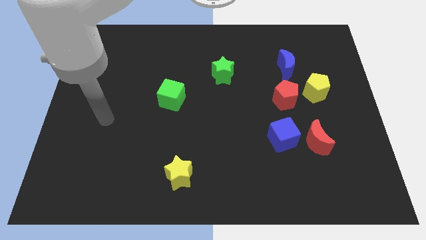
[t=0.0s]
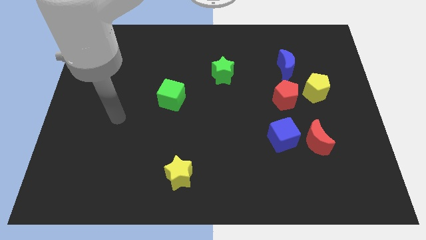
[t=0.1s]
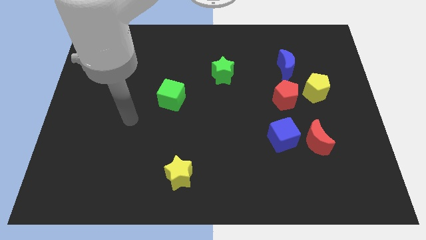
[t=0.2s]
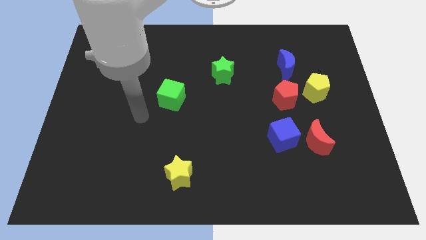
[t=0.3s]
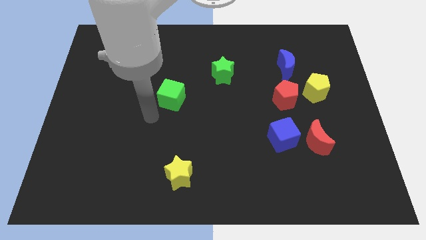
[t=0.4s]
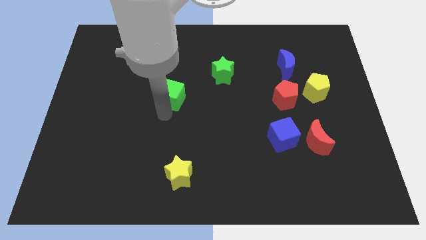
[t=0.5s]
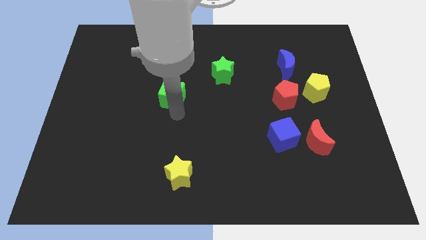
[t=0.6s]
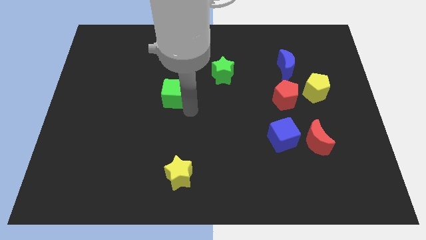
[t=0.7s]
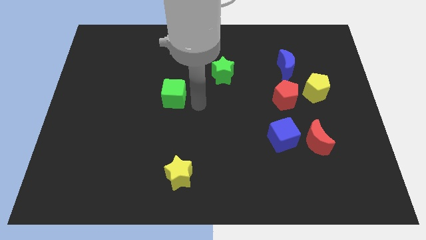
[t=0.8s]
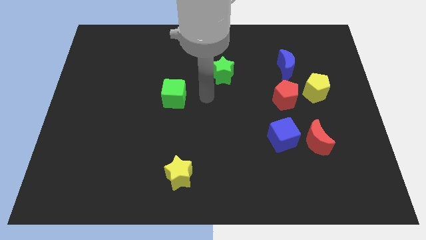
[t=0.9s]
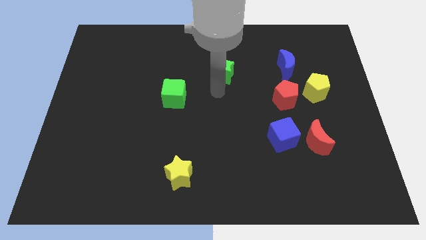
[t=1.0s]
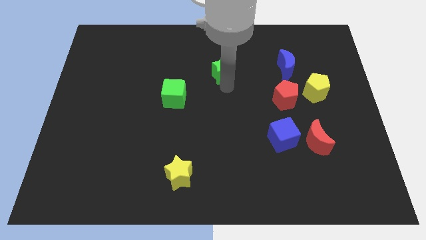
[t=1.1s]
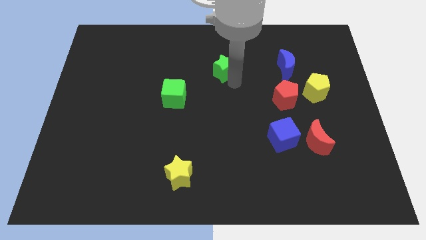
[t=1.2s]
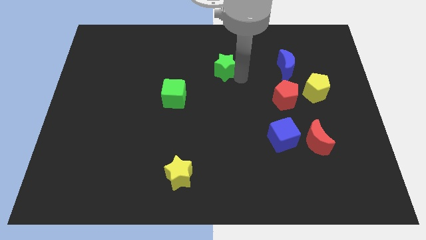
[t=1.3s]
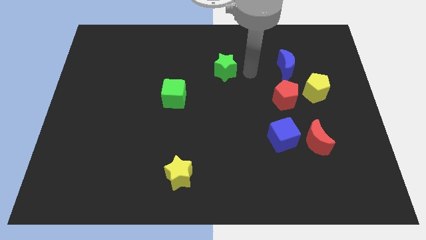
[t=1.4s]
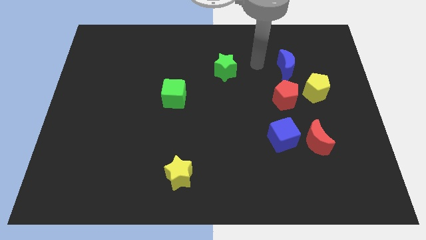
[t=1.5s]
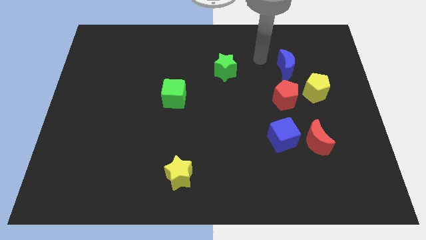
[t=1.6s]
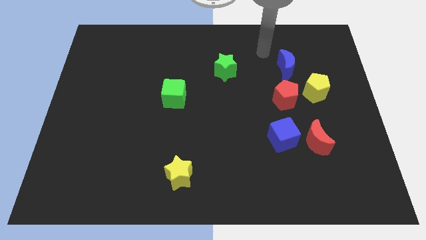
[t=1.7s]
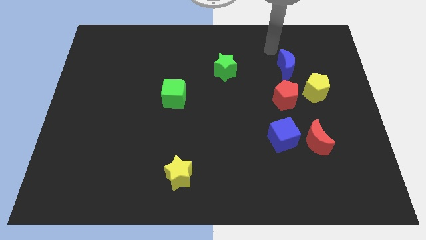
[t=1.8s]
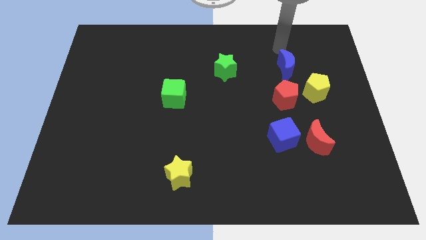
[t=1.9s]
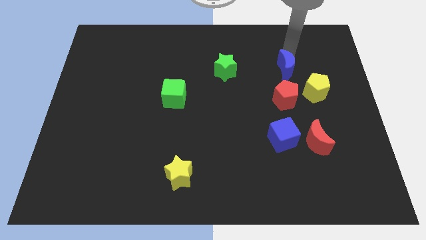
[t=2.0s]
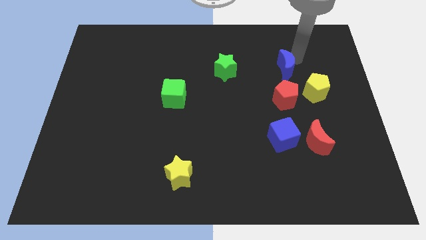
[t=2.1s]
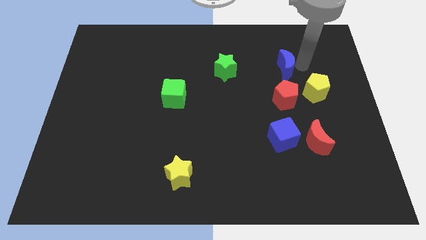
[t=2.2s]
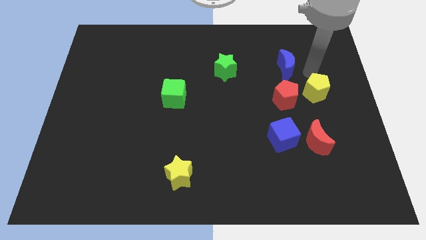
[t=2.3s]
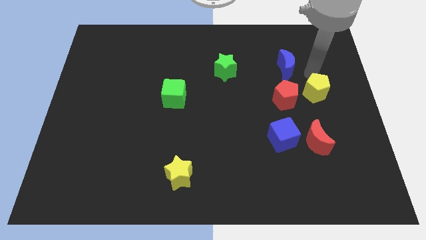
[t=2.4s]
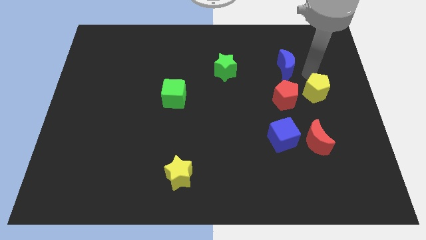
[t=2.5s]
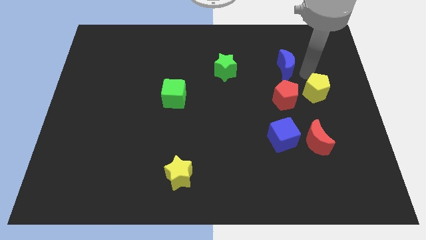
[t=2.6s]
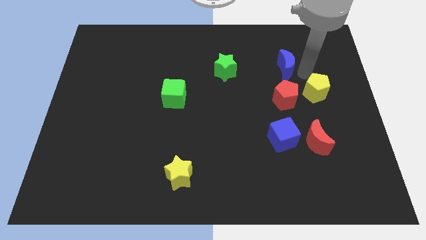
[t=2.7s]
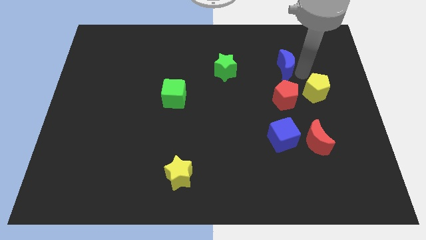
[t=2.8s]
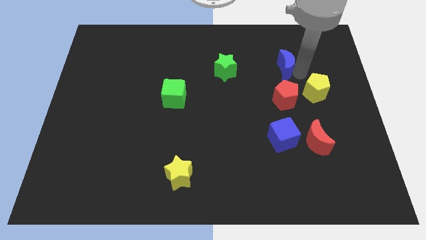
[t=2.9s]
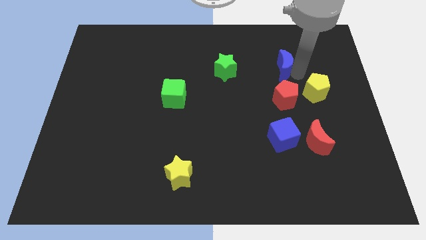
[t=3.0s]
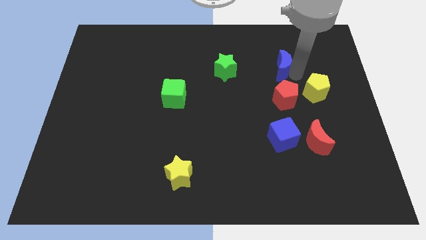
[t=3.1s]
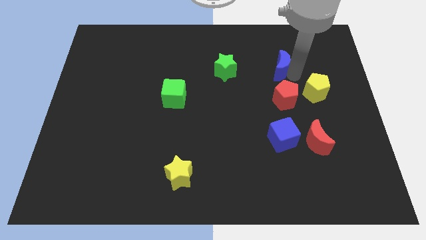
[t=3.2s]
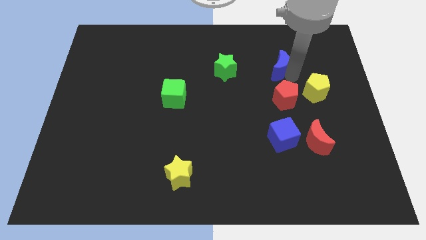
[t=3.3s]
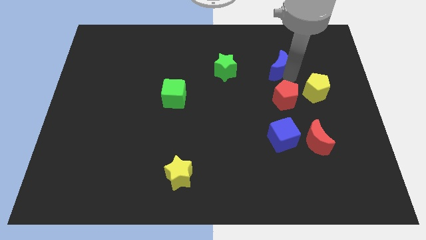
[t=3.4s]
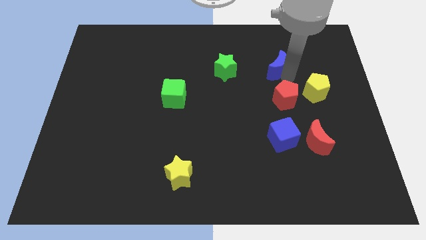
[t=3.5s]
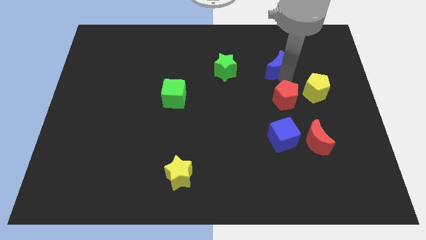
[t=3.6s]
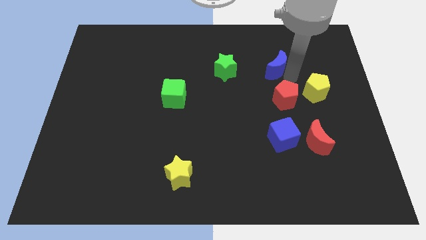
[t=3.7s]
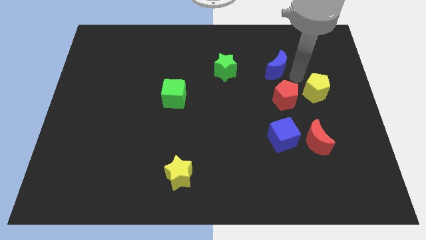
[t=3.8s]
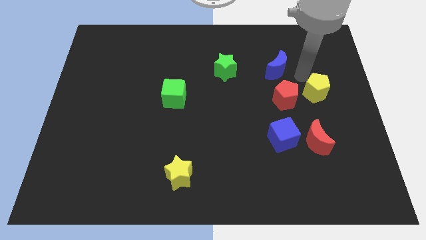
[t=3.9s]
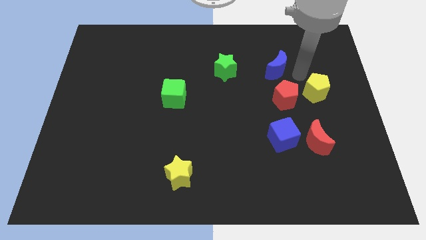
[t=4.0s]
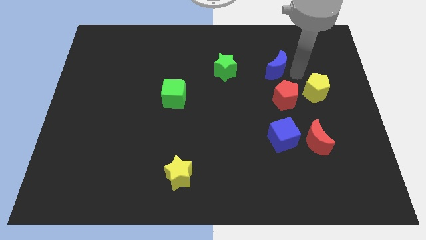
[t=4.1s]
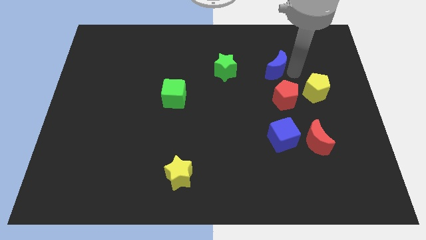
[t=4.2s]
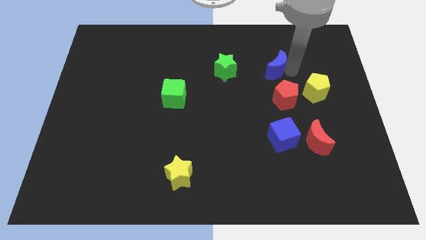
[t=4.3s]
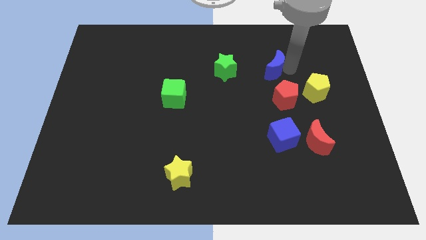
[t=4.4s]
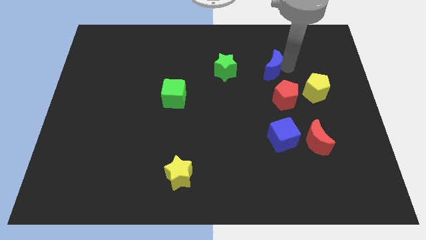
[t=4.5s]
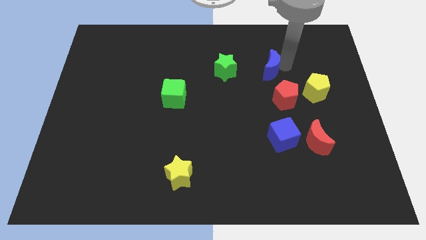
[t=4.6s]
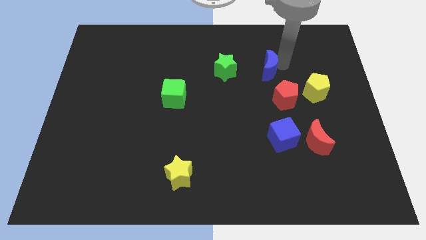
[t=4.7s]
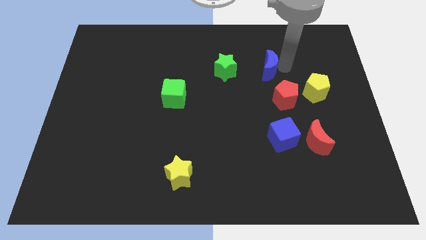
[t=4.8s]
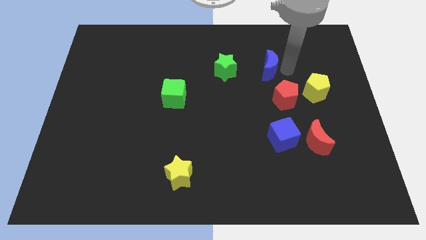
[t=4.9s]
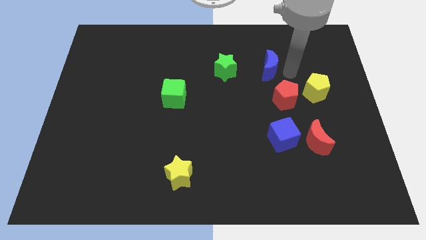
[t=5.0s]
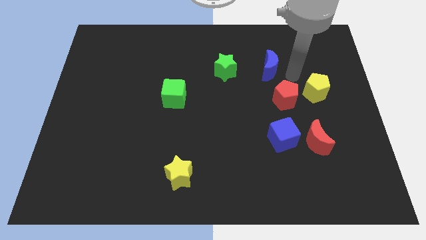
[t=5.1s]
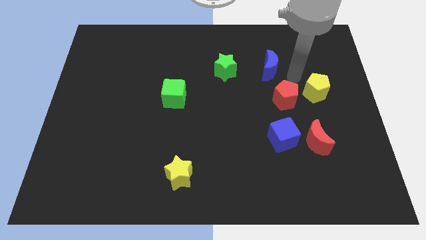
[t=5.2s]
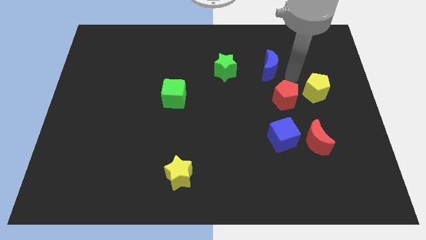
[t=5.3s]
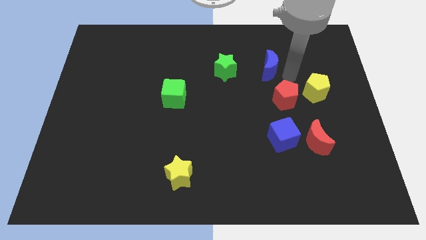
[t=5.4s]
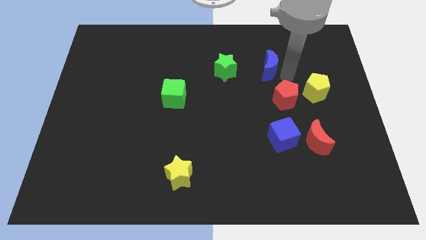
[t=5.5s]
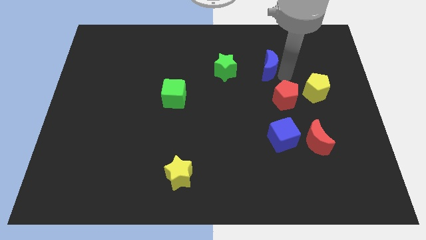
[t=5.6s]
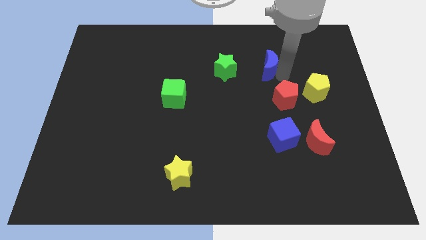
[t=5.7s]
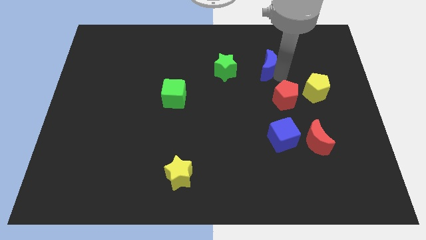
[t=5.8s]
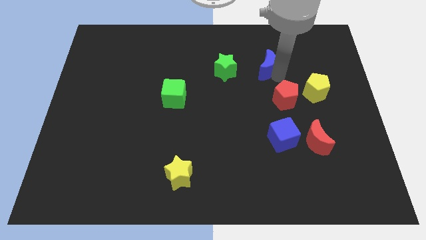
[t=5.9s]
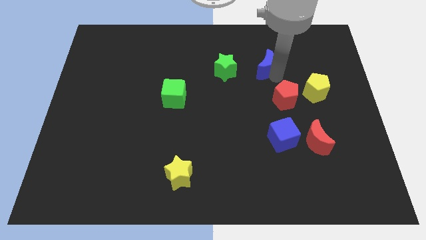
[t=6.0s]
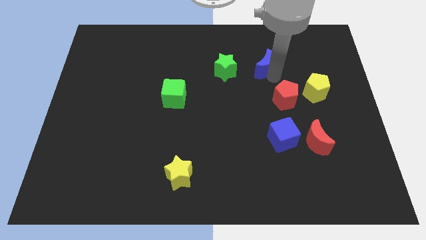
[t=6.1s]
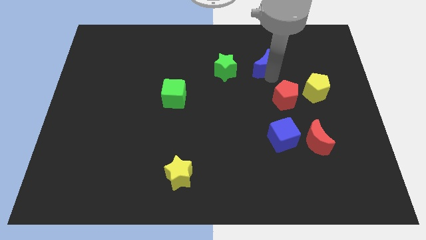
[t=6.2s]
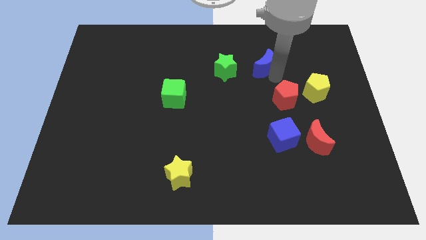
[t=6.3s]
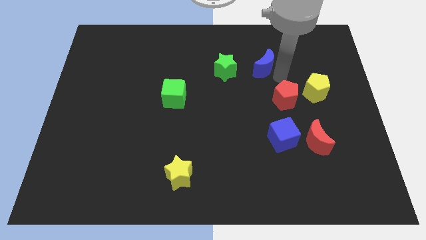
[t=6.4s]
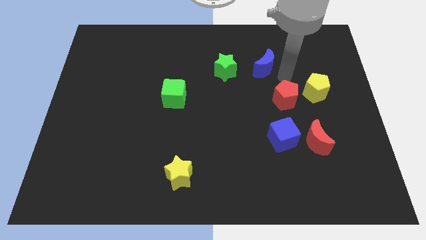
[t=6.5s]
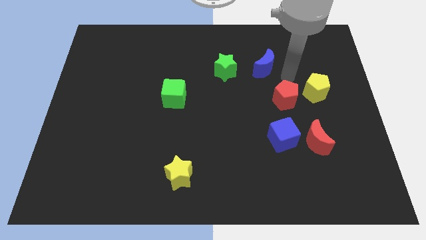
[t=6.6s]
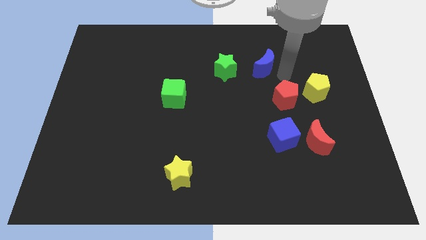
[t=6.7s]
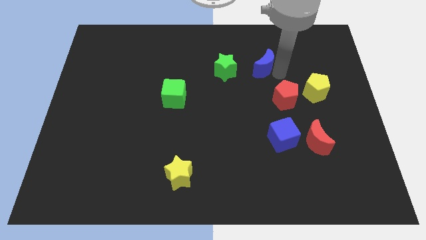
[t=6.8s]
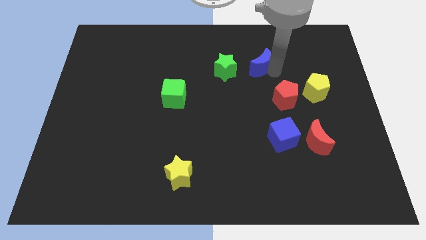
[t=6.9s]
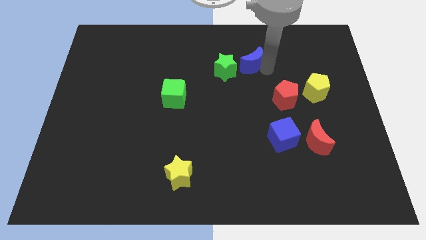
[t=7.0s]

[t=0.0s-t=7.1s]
move the blue moon left a bit

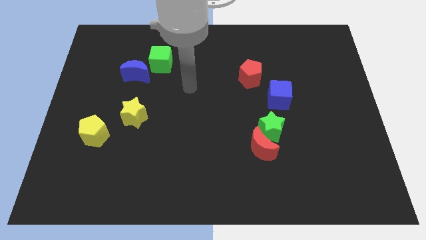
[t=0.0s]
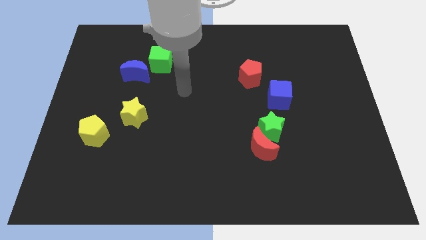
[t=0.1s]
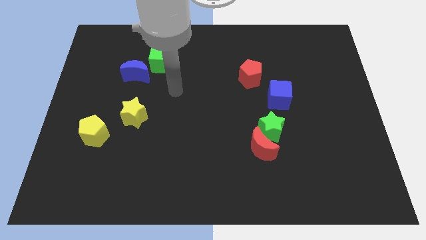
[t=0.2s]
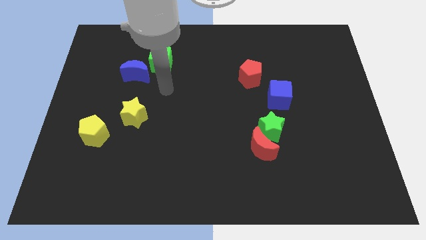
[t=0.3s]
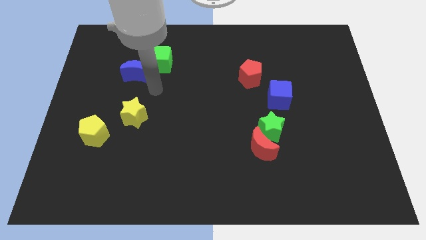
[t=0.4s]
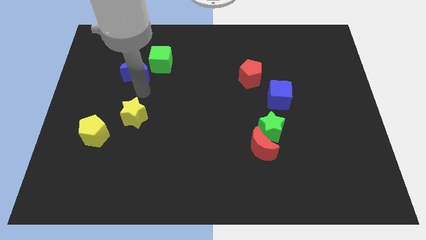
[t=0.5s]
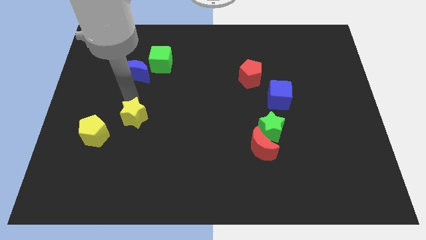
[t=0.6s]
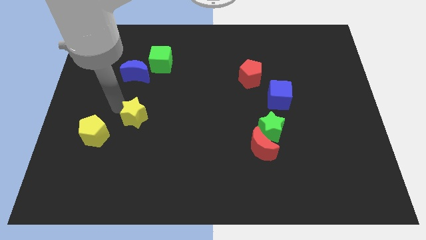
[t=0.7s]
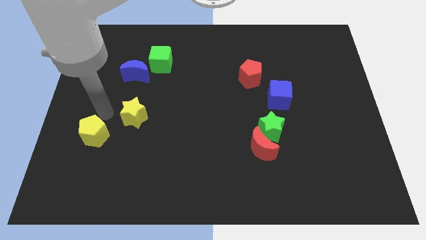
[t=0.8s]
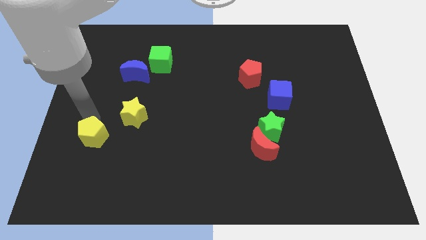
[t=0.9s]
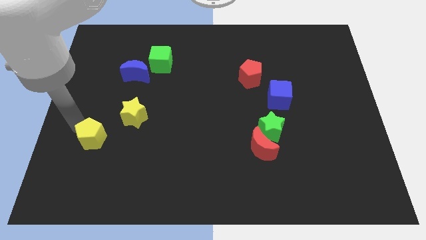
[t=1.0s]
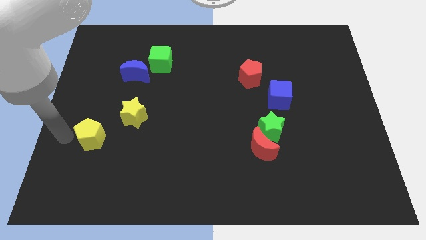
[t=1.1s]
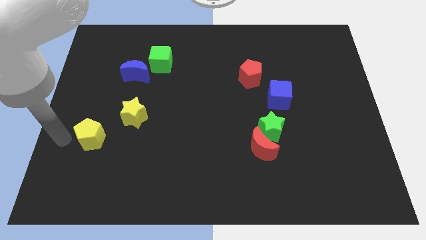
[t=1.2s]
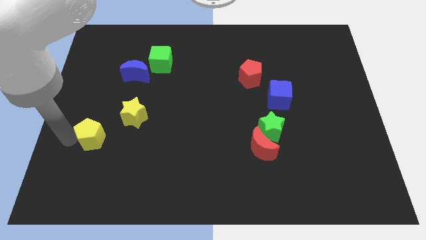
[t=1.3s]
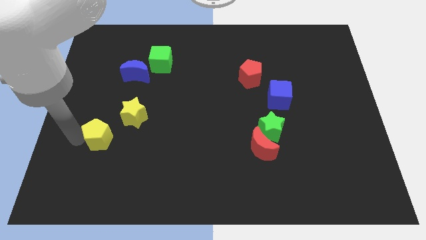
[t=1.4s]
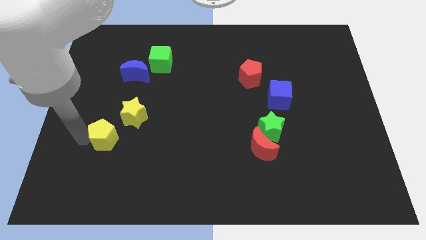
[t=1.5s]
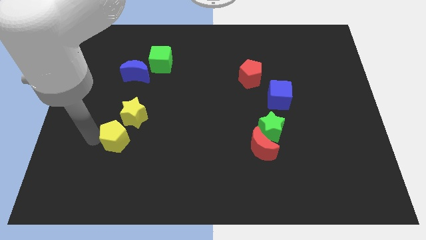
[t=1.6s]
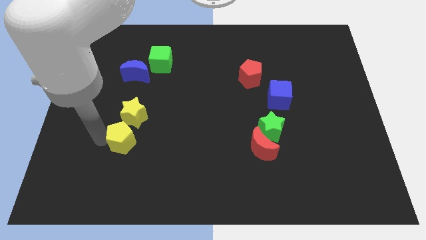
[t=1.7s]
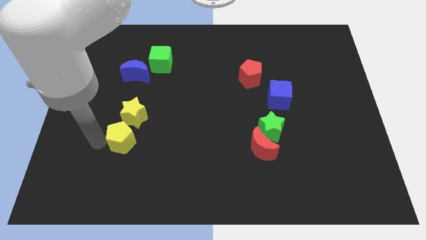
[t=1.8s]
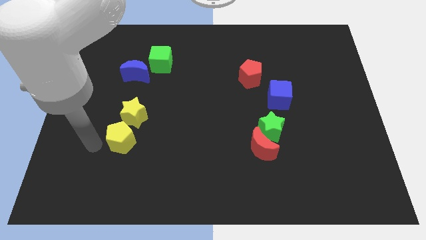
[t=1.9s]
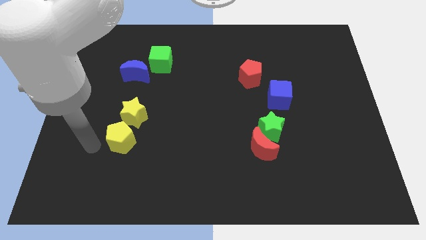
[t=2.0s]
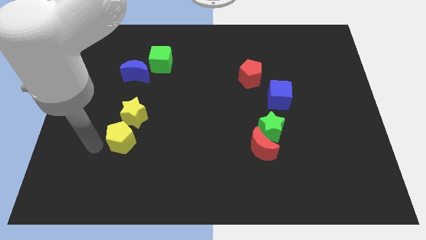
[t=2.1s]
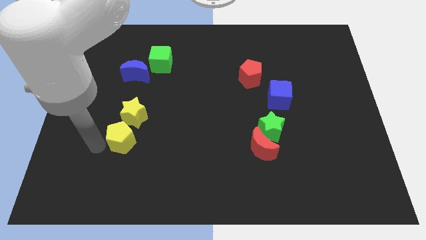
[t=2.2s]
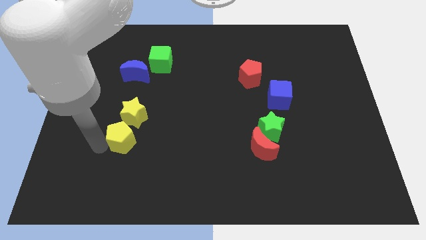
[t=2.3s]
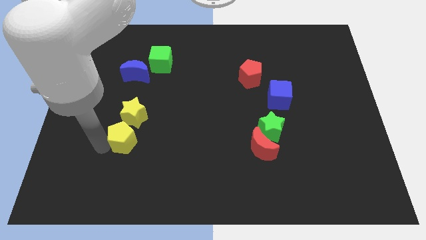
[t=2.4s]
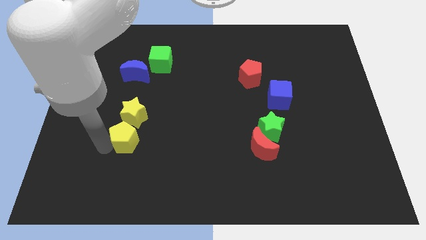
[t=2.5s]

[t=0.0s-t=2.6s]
push the yellow pentagon right somewhat
